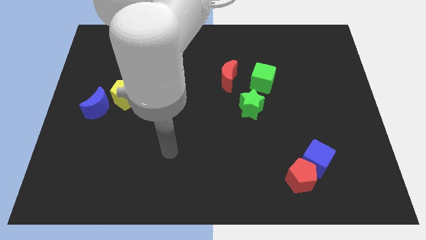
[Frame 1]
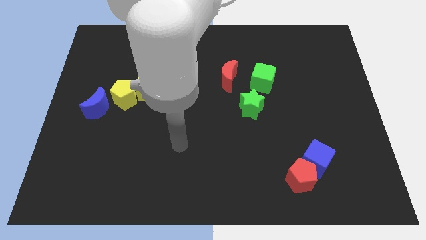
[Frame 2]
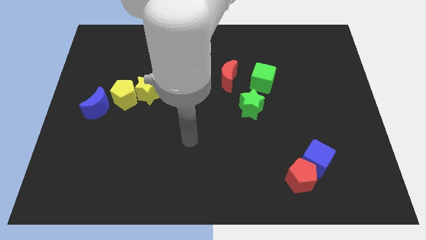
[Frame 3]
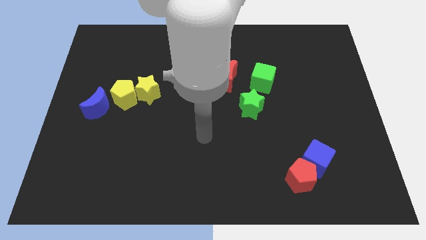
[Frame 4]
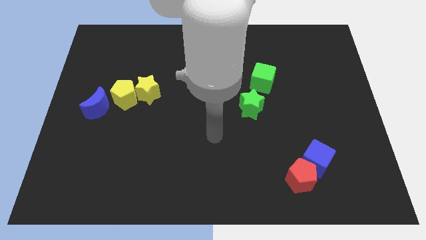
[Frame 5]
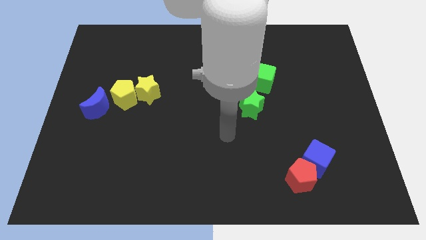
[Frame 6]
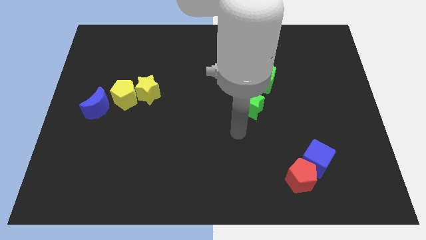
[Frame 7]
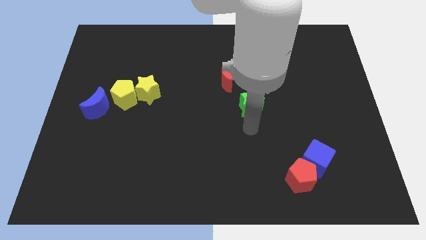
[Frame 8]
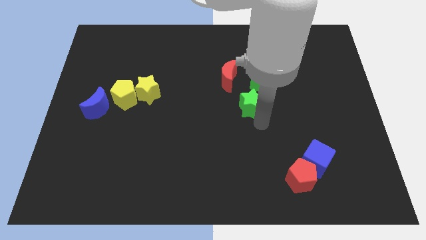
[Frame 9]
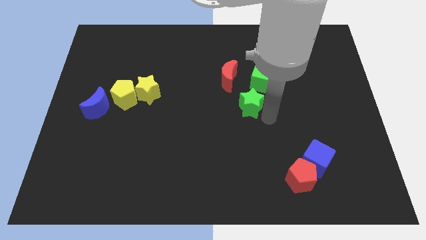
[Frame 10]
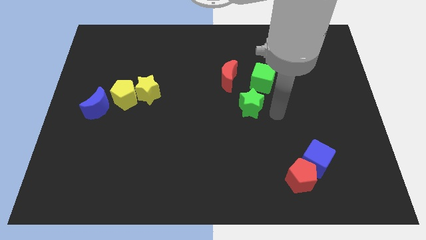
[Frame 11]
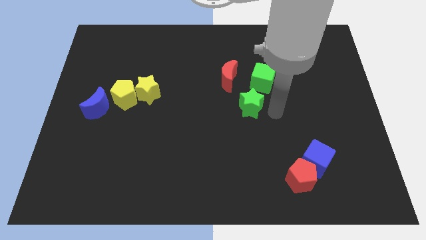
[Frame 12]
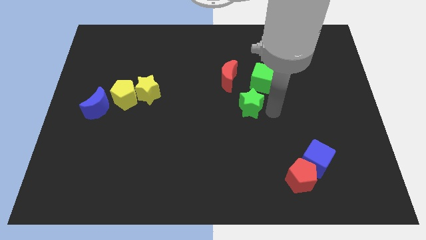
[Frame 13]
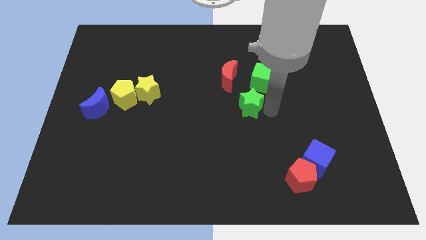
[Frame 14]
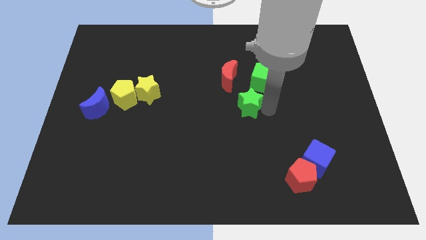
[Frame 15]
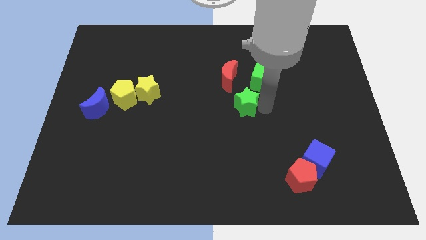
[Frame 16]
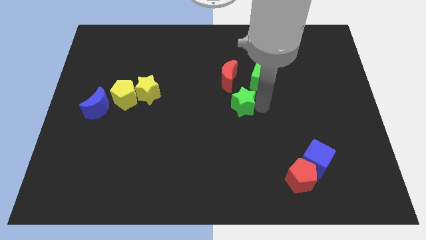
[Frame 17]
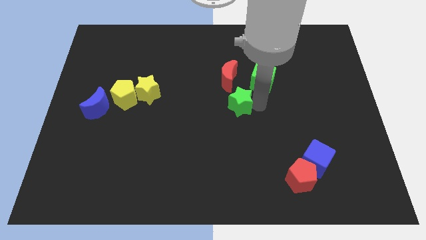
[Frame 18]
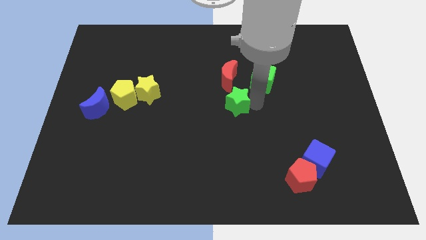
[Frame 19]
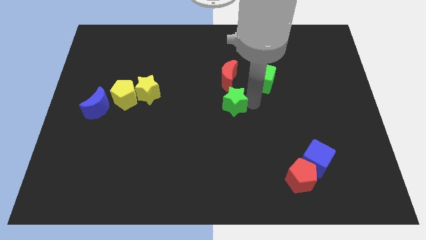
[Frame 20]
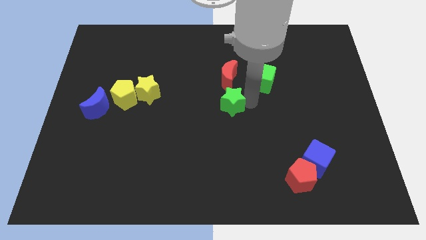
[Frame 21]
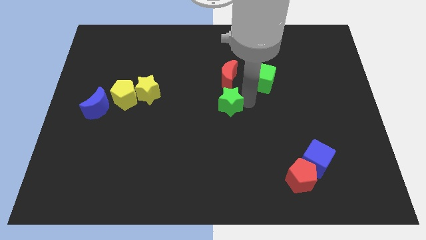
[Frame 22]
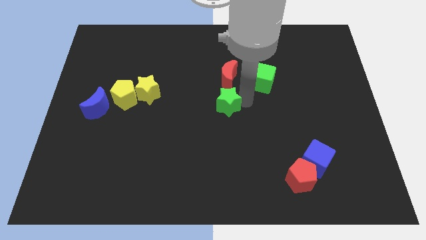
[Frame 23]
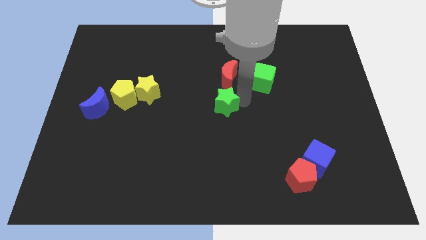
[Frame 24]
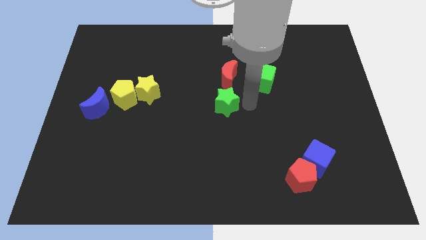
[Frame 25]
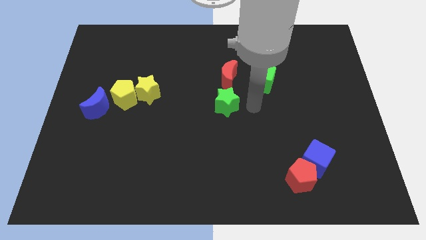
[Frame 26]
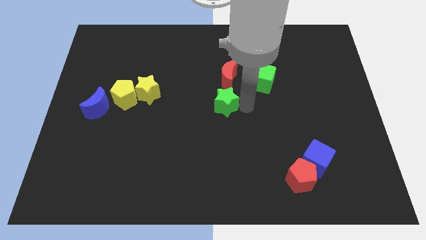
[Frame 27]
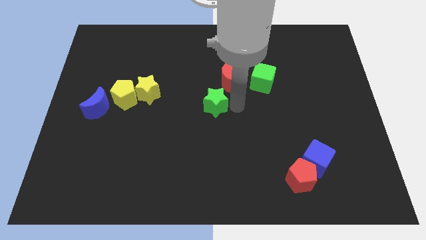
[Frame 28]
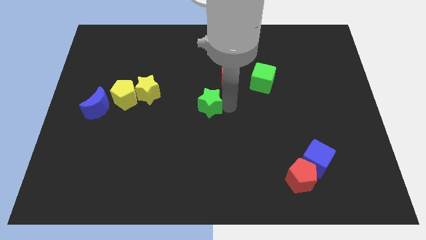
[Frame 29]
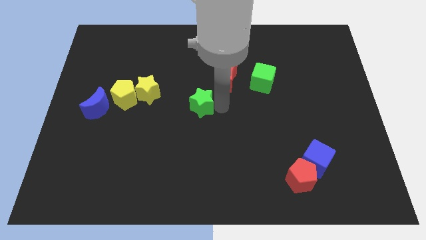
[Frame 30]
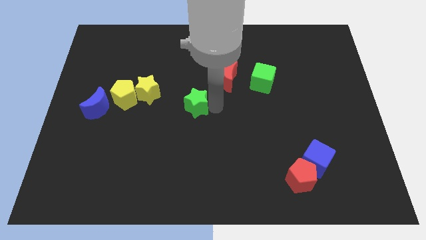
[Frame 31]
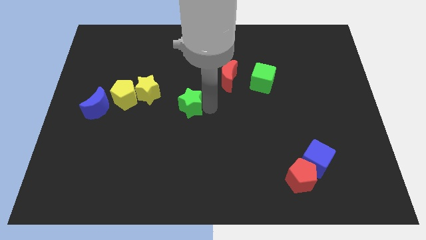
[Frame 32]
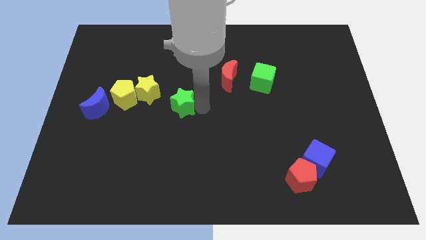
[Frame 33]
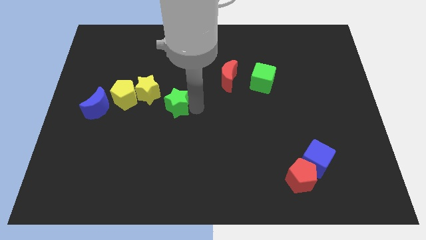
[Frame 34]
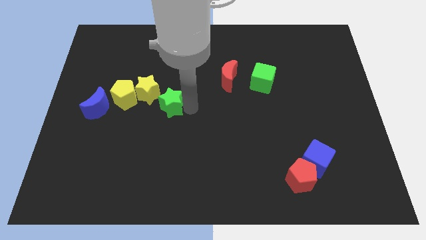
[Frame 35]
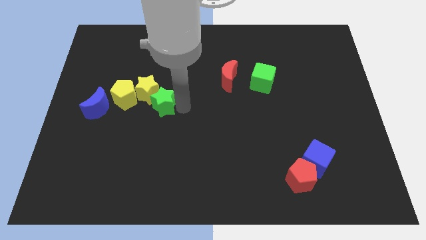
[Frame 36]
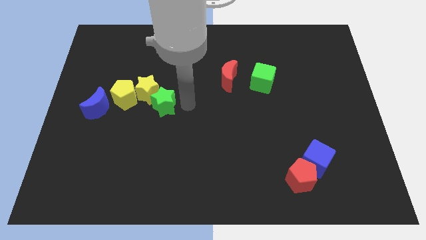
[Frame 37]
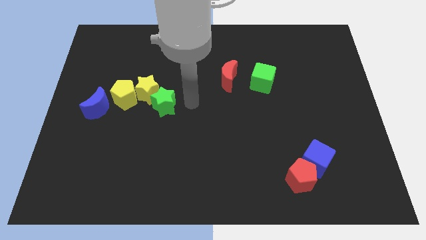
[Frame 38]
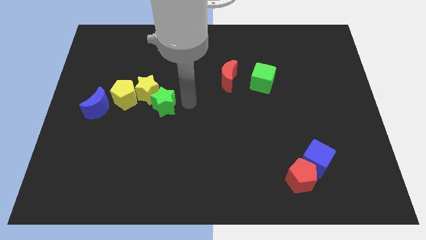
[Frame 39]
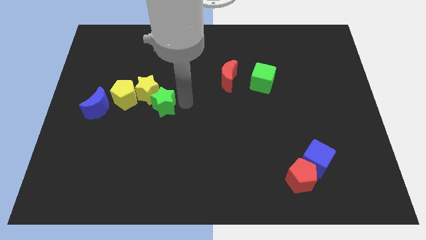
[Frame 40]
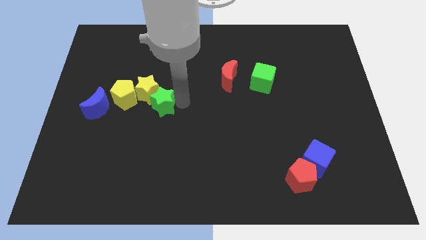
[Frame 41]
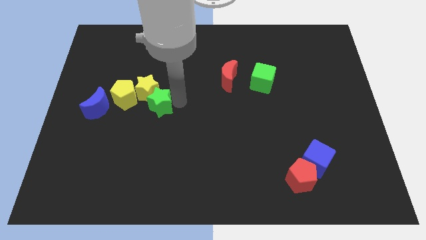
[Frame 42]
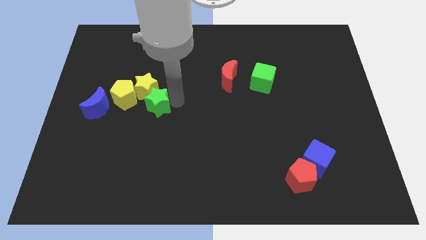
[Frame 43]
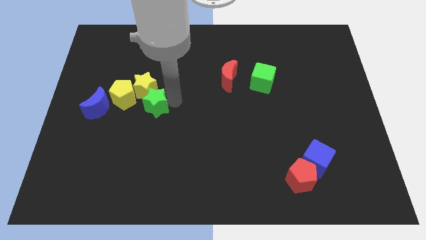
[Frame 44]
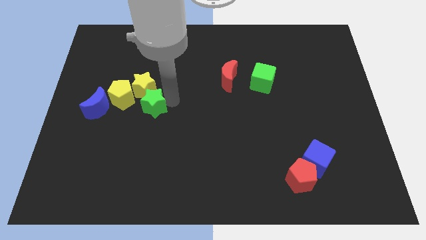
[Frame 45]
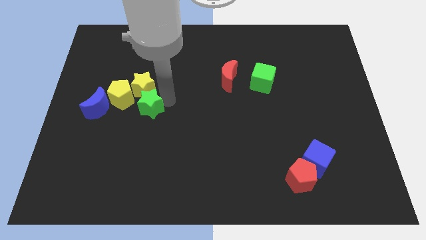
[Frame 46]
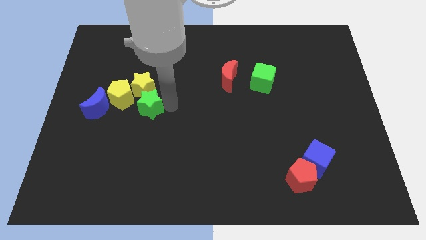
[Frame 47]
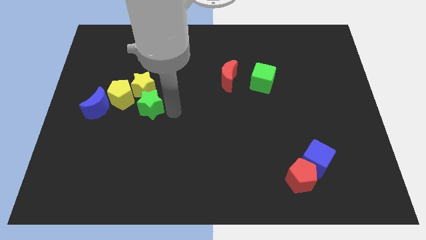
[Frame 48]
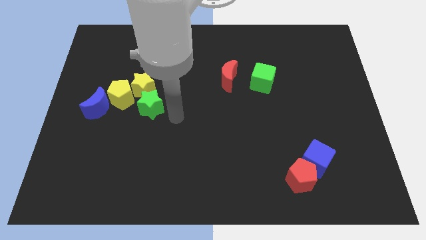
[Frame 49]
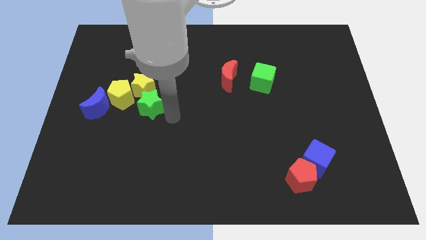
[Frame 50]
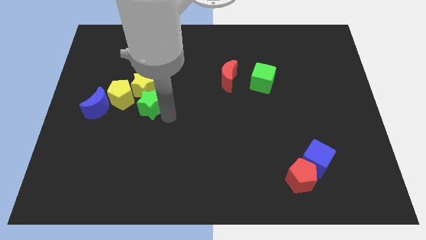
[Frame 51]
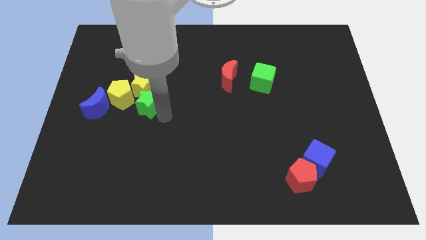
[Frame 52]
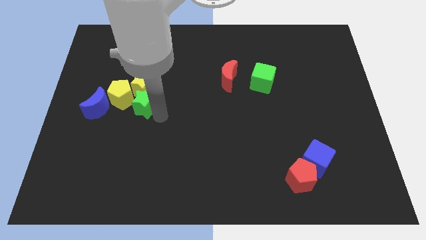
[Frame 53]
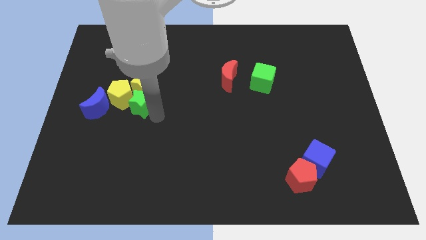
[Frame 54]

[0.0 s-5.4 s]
move the green star towards the yellow pentagon

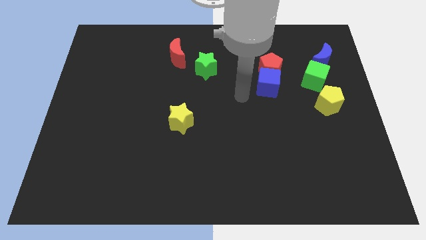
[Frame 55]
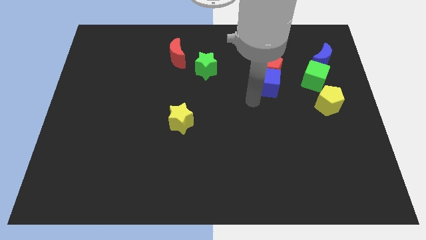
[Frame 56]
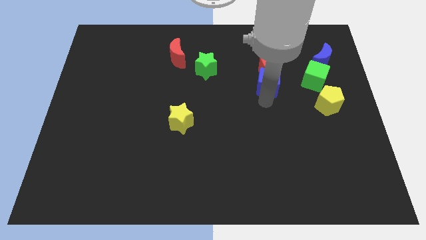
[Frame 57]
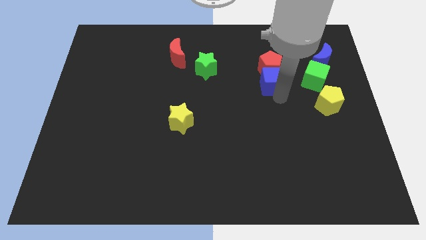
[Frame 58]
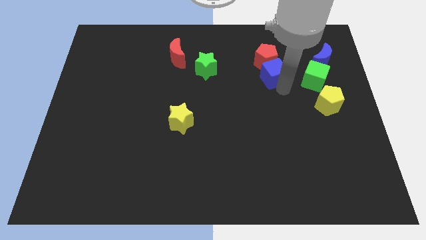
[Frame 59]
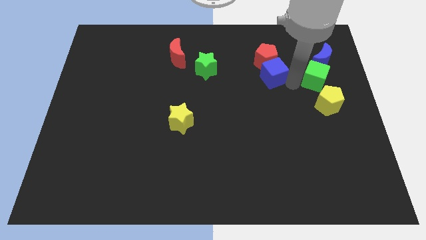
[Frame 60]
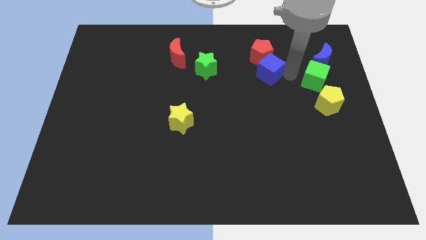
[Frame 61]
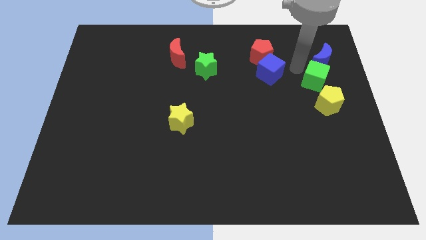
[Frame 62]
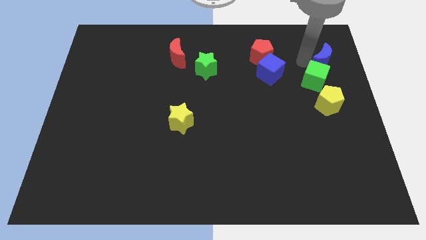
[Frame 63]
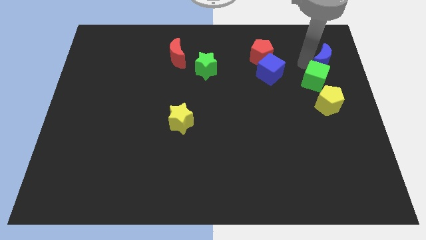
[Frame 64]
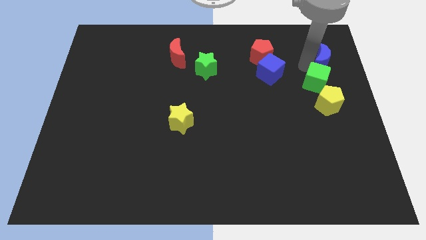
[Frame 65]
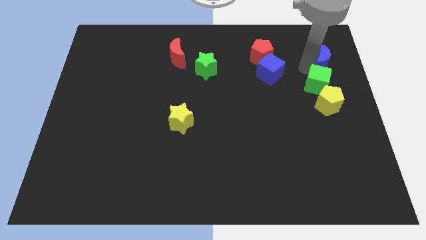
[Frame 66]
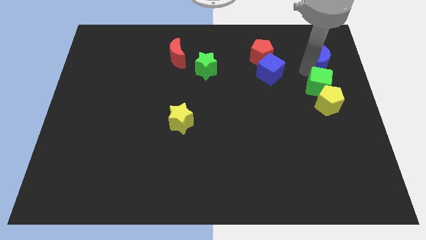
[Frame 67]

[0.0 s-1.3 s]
put the green cube next to the yellow pentagon

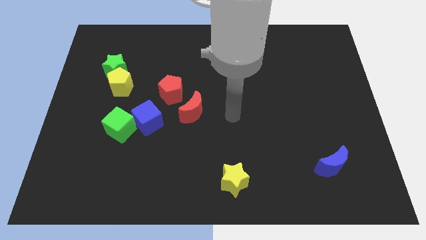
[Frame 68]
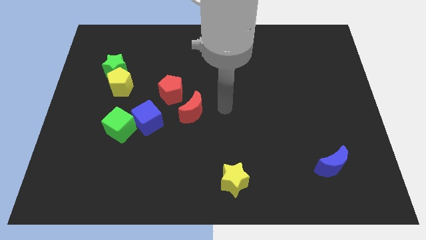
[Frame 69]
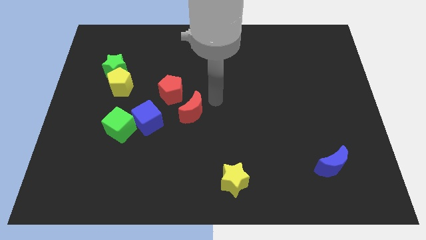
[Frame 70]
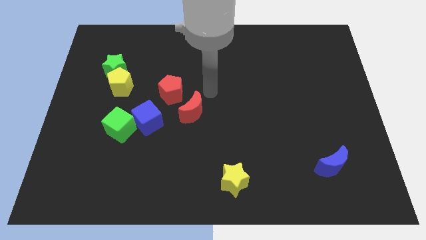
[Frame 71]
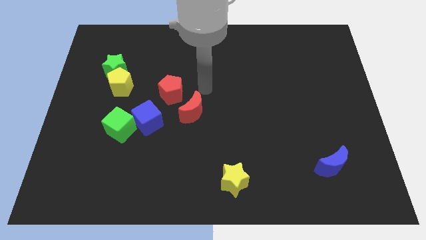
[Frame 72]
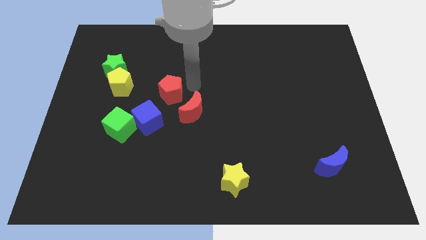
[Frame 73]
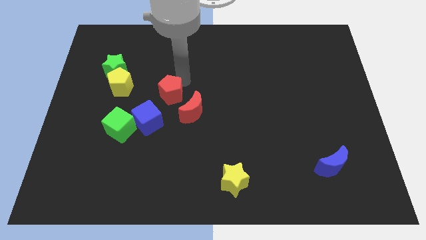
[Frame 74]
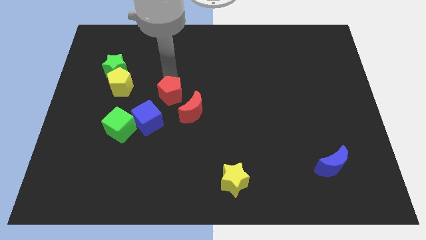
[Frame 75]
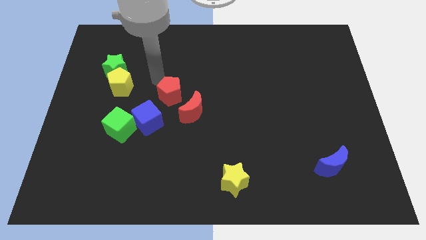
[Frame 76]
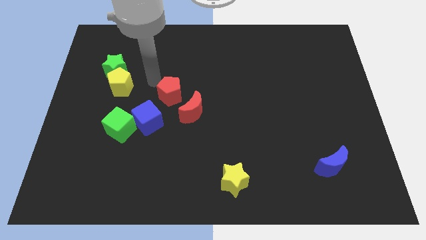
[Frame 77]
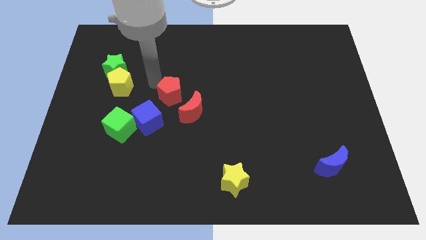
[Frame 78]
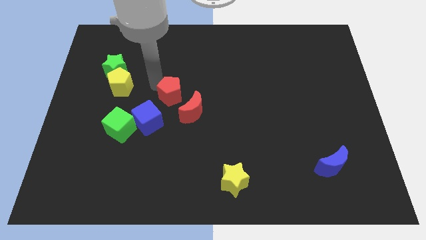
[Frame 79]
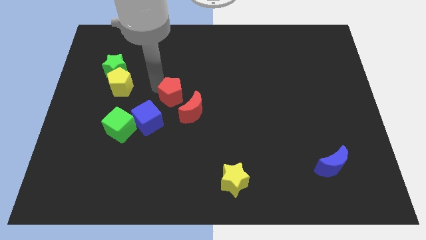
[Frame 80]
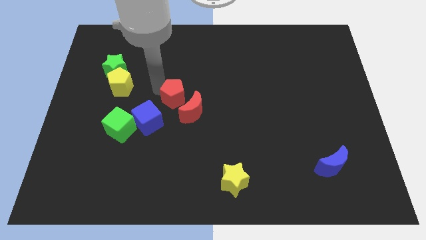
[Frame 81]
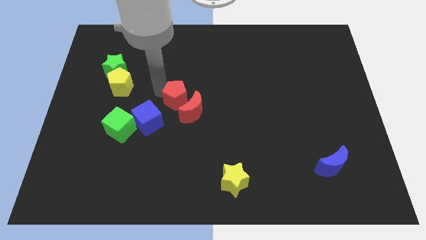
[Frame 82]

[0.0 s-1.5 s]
push the red pentagon to the red moon
